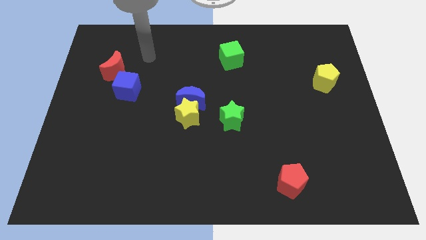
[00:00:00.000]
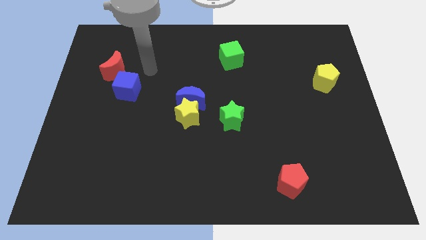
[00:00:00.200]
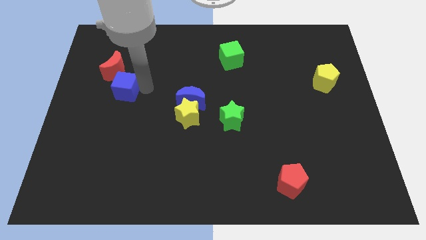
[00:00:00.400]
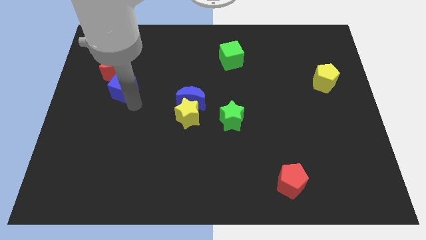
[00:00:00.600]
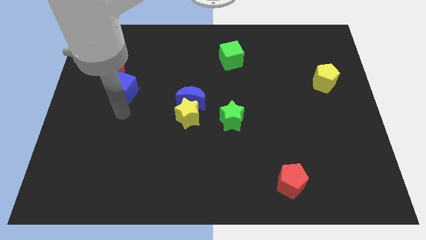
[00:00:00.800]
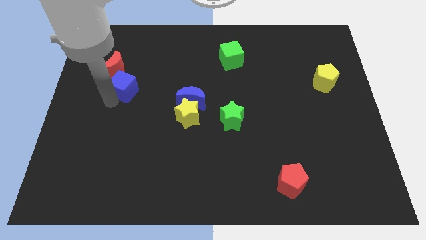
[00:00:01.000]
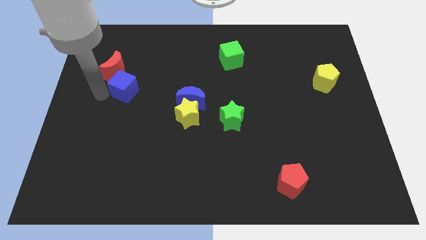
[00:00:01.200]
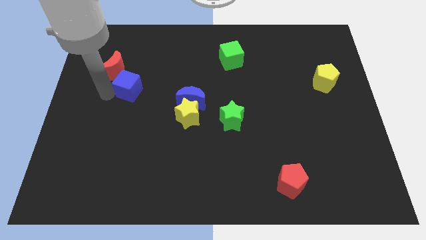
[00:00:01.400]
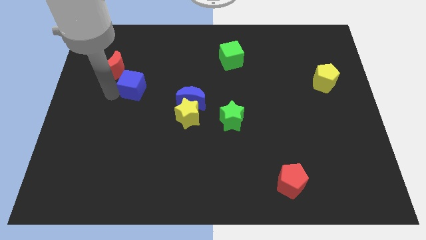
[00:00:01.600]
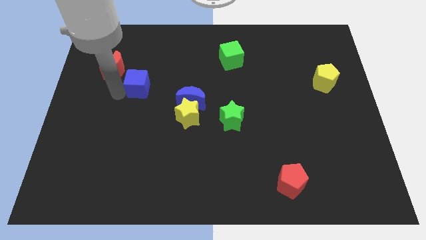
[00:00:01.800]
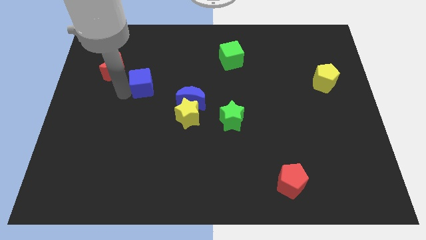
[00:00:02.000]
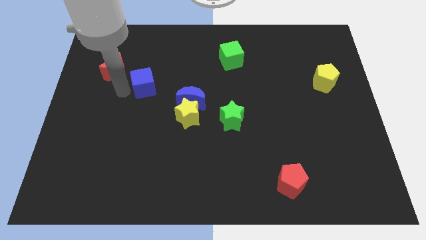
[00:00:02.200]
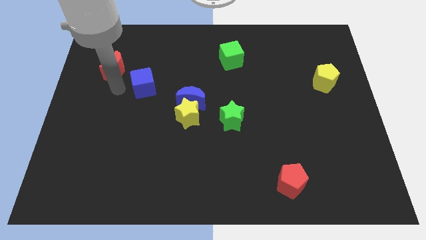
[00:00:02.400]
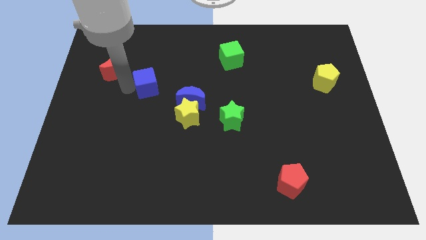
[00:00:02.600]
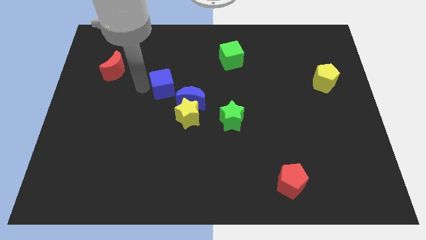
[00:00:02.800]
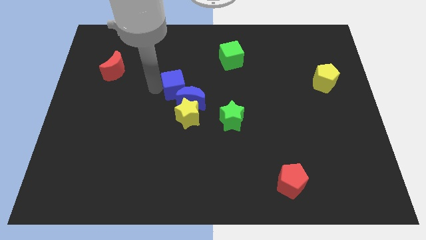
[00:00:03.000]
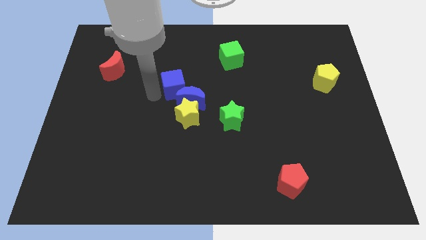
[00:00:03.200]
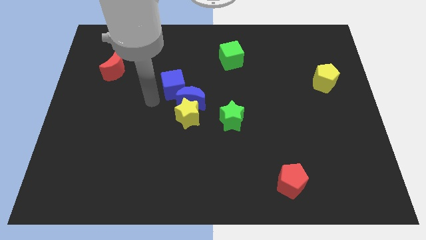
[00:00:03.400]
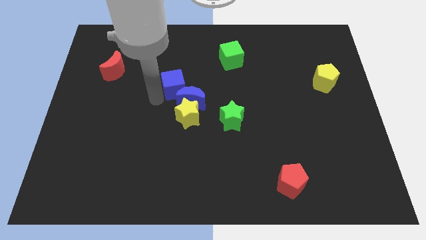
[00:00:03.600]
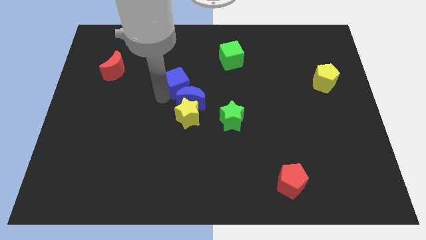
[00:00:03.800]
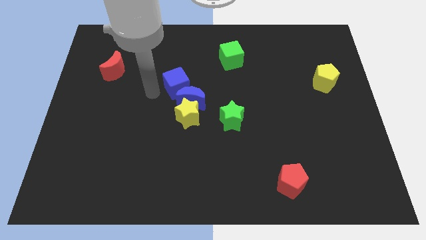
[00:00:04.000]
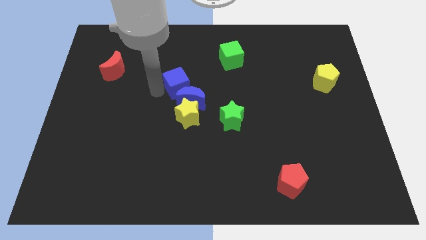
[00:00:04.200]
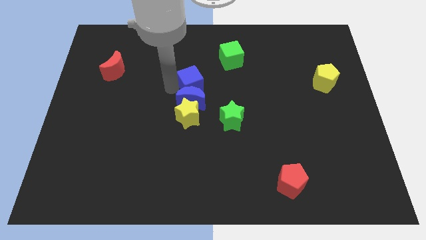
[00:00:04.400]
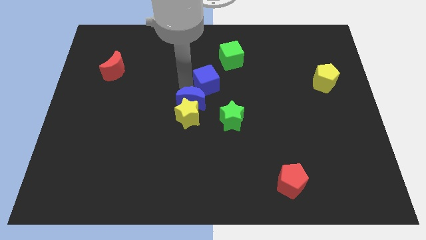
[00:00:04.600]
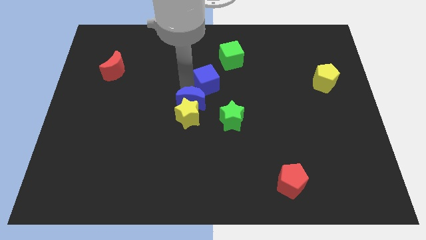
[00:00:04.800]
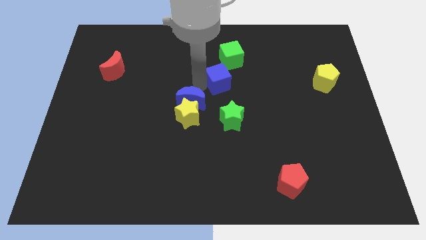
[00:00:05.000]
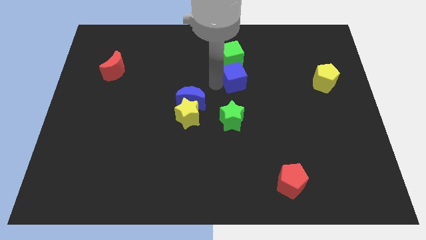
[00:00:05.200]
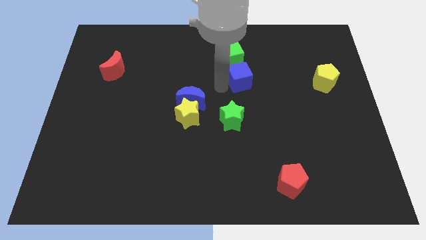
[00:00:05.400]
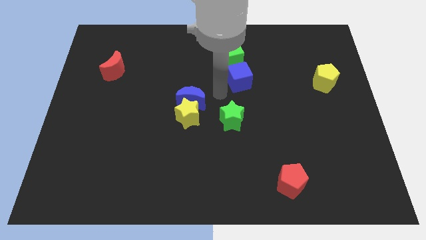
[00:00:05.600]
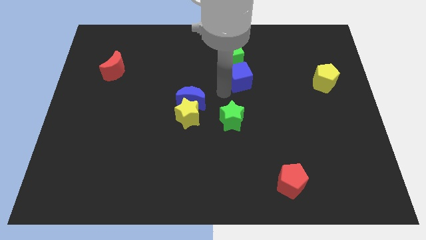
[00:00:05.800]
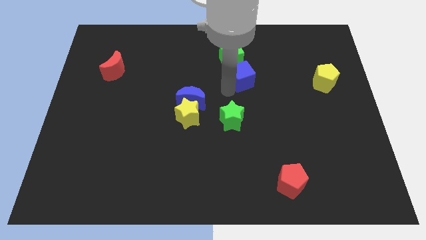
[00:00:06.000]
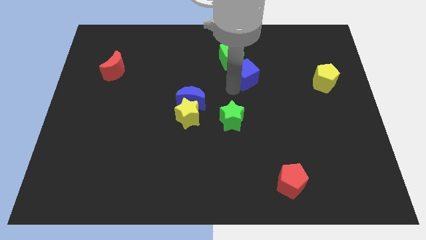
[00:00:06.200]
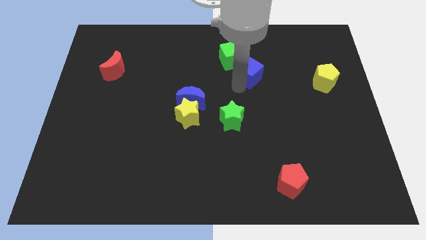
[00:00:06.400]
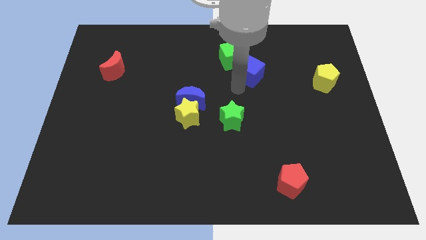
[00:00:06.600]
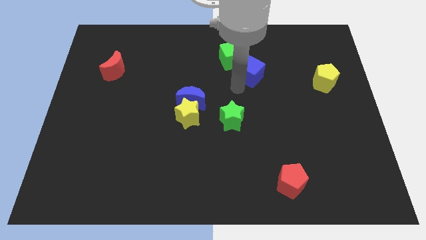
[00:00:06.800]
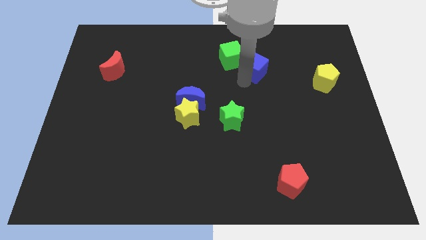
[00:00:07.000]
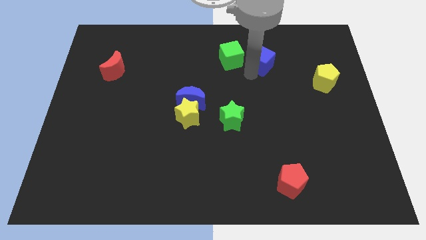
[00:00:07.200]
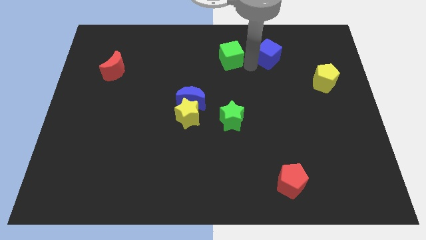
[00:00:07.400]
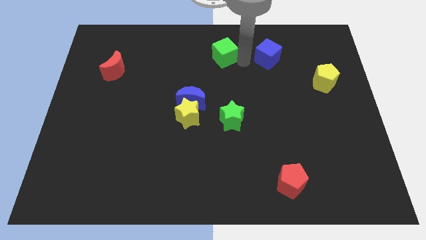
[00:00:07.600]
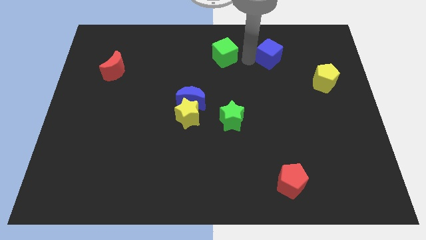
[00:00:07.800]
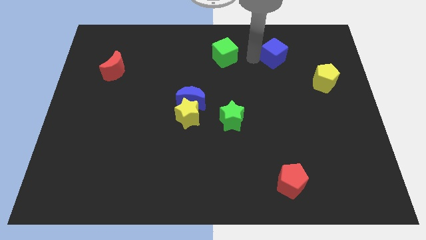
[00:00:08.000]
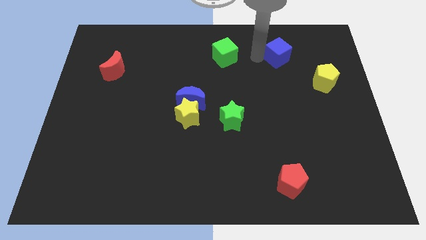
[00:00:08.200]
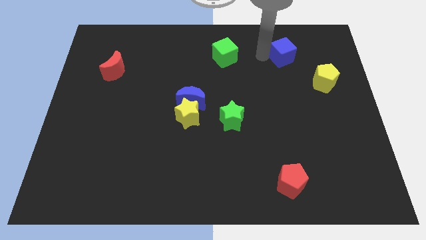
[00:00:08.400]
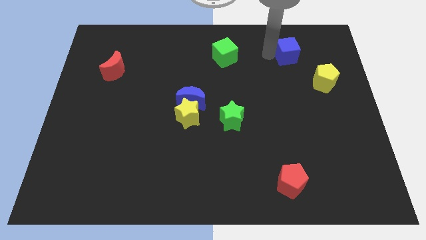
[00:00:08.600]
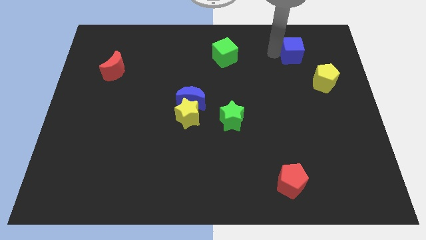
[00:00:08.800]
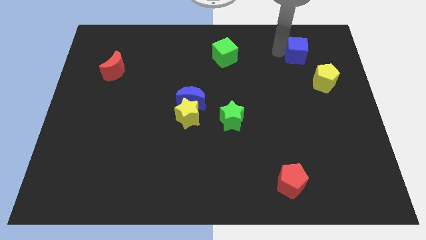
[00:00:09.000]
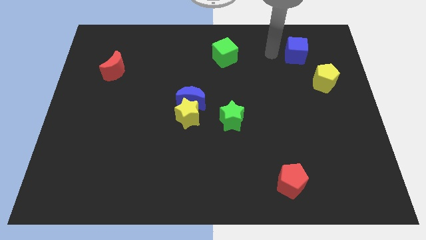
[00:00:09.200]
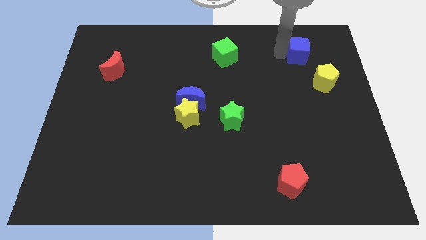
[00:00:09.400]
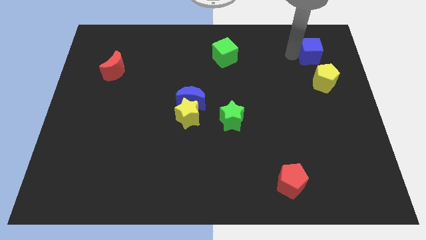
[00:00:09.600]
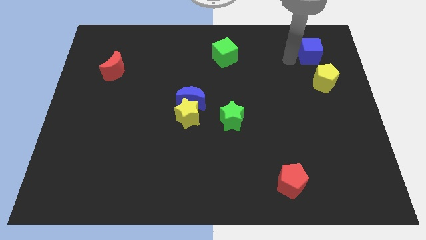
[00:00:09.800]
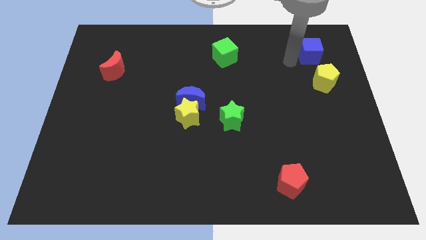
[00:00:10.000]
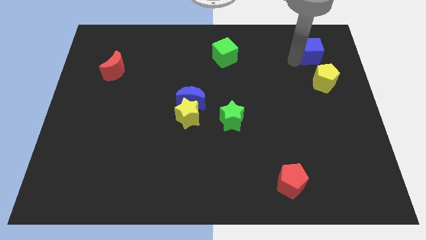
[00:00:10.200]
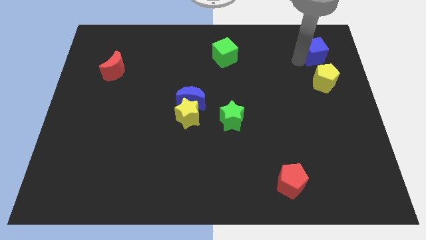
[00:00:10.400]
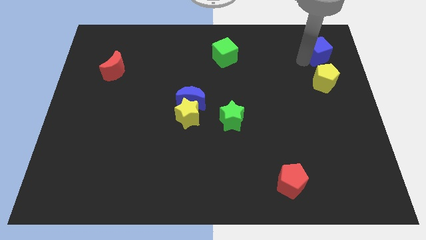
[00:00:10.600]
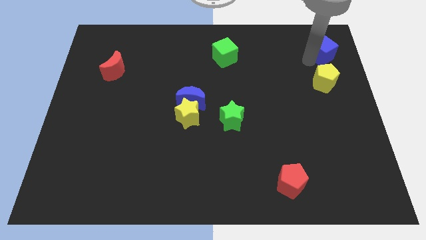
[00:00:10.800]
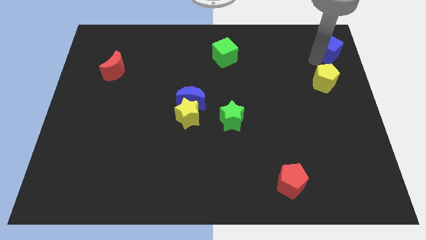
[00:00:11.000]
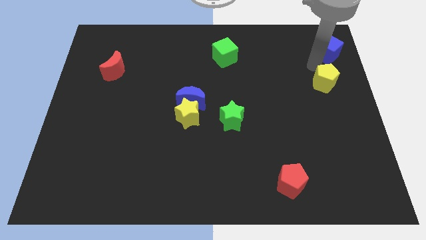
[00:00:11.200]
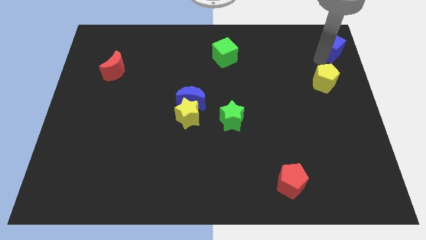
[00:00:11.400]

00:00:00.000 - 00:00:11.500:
put the blue cube to the top right of the board

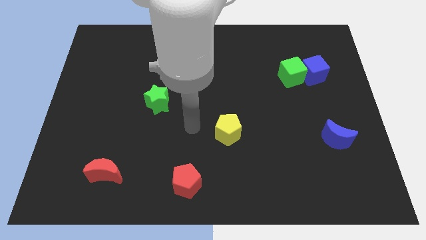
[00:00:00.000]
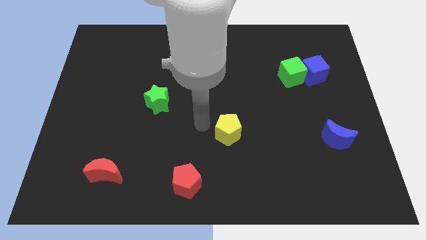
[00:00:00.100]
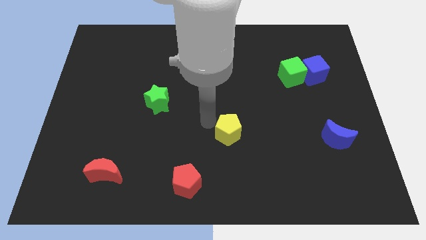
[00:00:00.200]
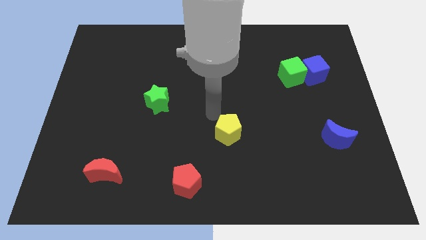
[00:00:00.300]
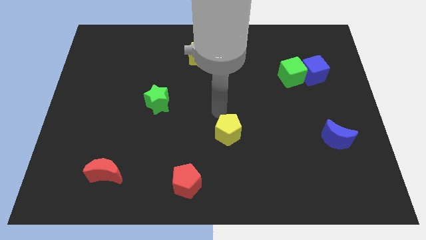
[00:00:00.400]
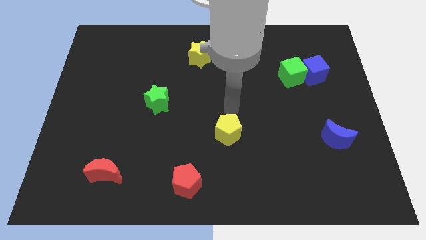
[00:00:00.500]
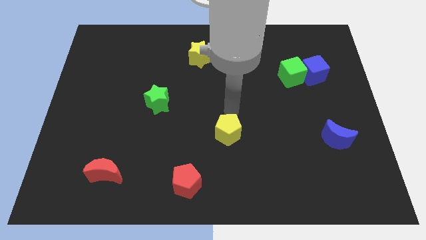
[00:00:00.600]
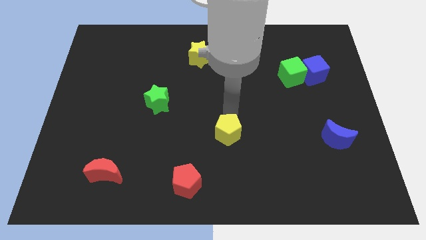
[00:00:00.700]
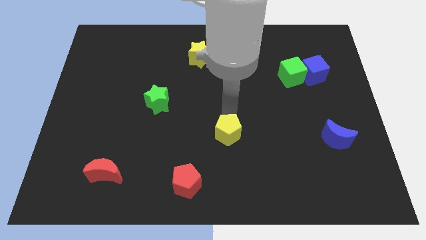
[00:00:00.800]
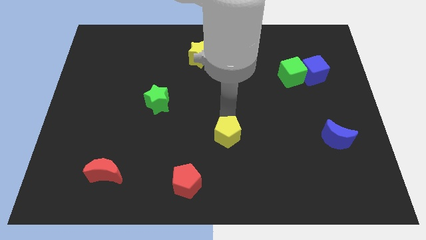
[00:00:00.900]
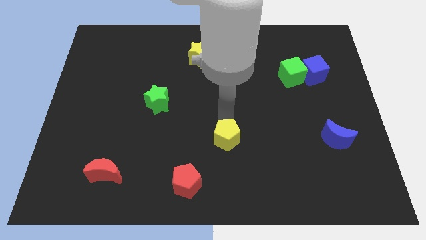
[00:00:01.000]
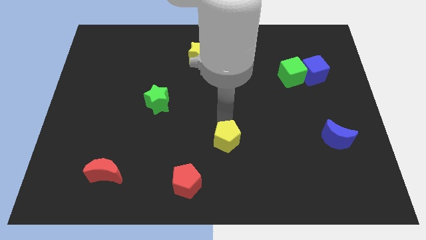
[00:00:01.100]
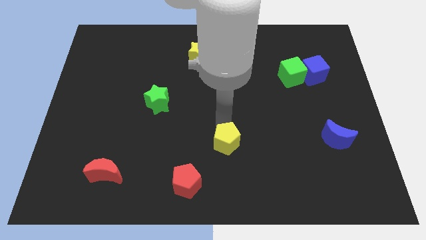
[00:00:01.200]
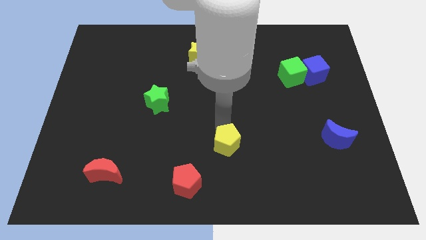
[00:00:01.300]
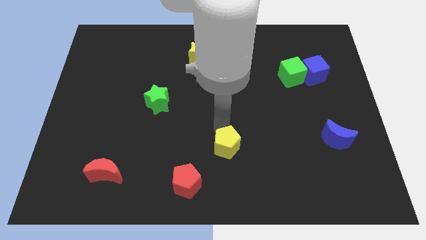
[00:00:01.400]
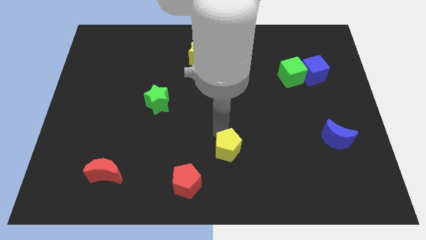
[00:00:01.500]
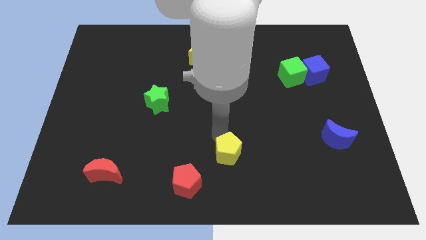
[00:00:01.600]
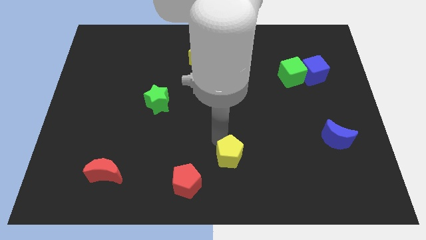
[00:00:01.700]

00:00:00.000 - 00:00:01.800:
push the yellow pentagon to the bottom
